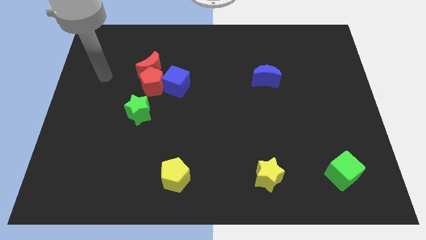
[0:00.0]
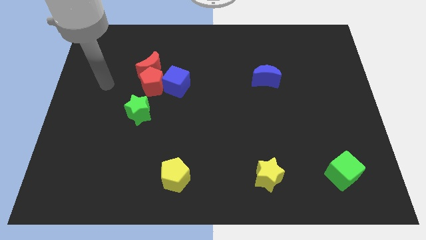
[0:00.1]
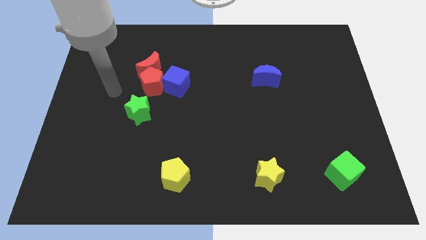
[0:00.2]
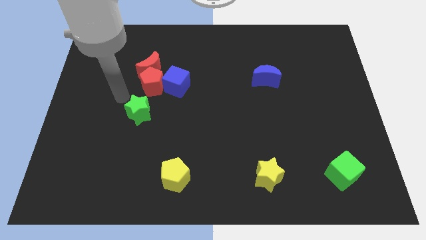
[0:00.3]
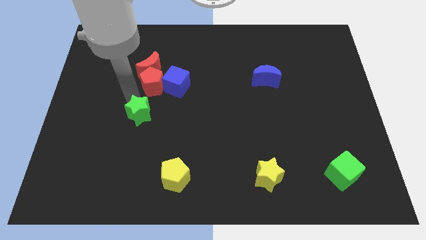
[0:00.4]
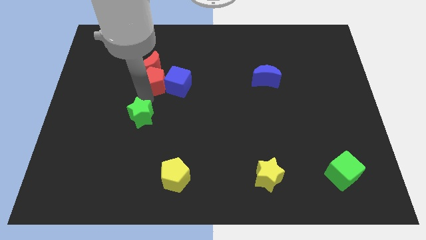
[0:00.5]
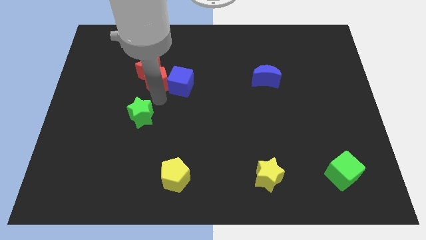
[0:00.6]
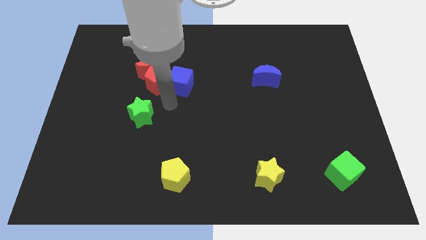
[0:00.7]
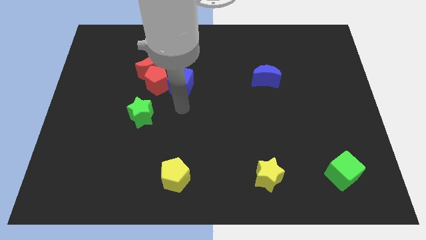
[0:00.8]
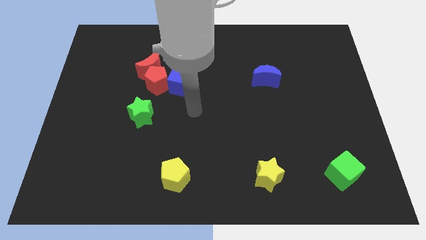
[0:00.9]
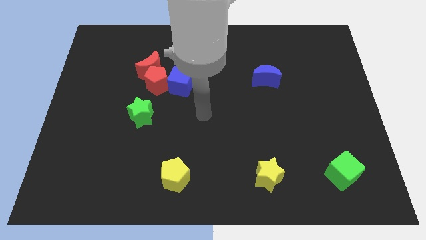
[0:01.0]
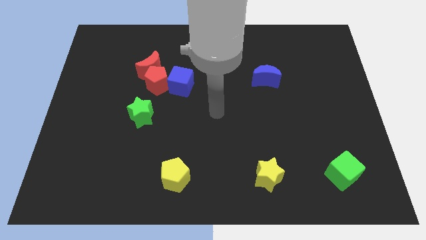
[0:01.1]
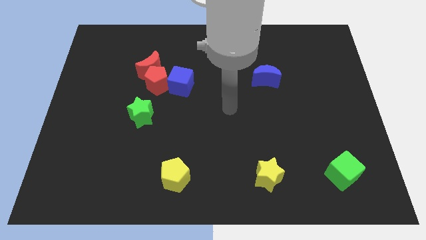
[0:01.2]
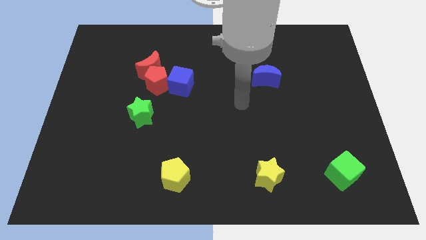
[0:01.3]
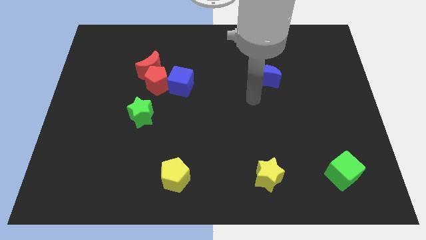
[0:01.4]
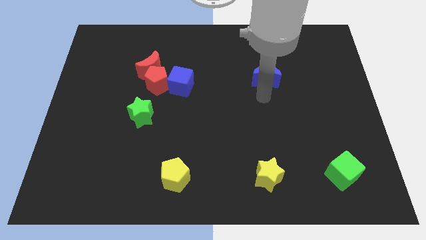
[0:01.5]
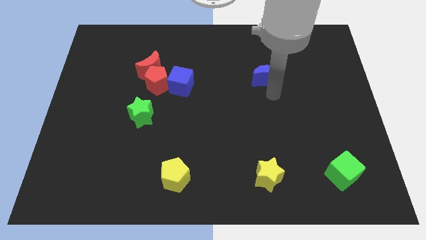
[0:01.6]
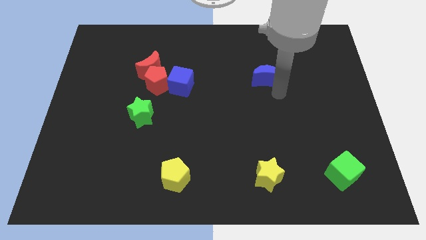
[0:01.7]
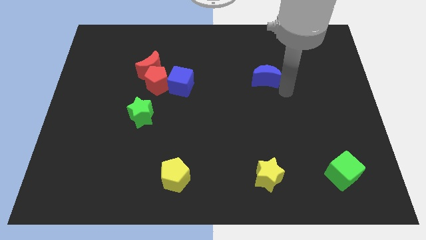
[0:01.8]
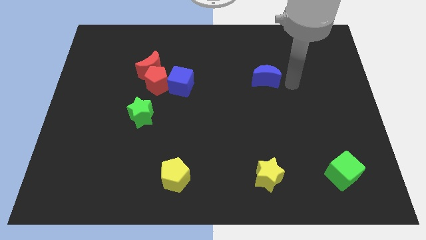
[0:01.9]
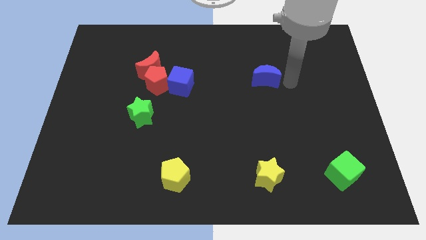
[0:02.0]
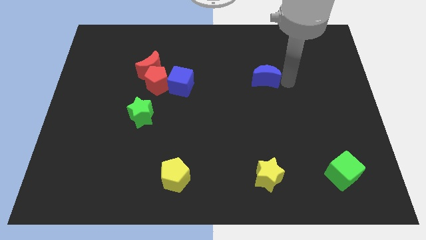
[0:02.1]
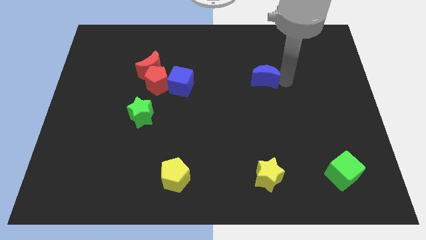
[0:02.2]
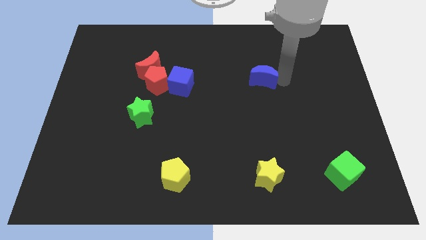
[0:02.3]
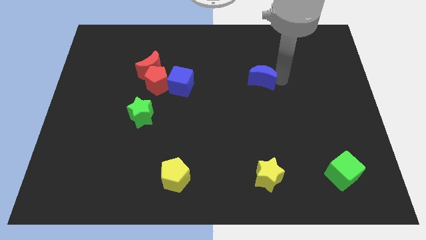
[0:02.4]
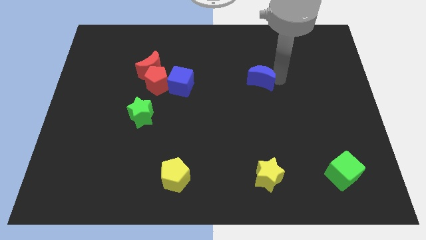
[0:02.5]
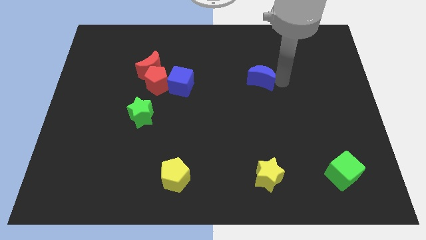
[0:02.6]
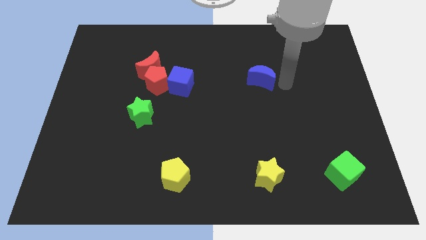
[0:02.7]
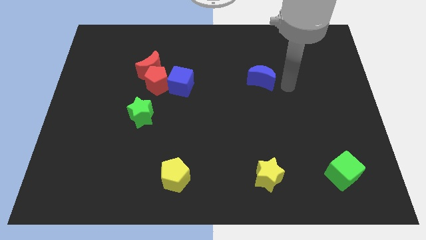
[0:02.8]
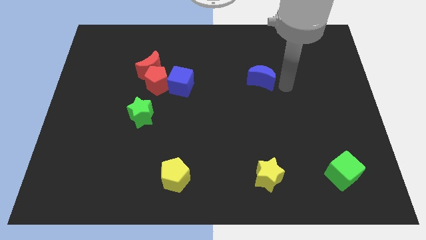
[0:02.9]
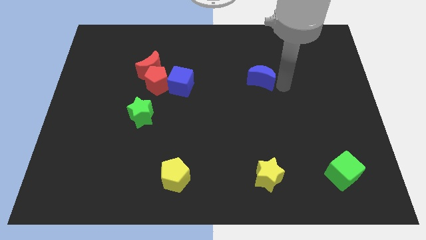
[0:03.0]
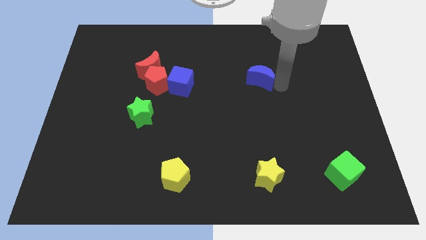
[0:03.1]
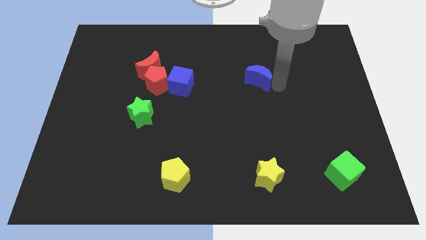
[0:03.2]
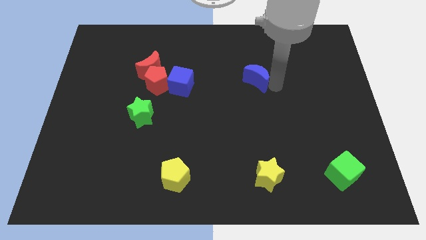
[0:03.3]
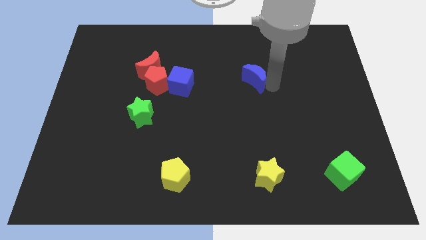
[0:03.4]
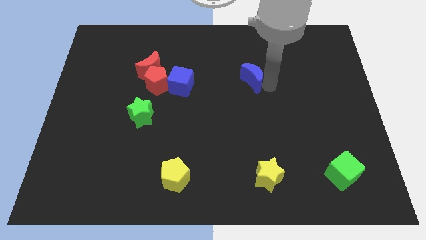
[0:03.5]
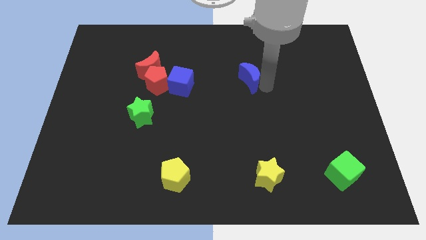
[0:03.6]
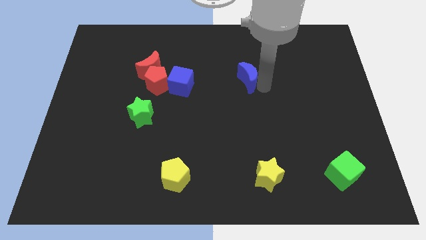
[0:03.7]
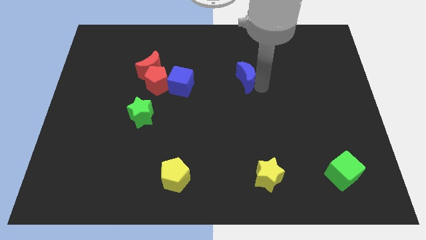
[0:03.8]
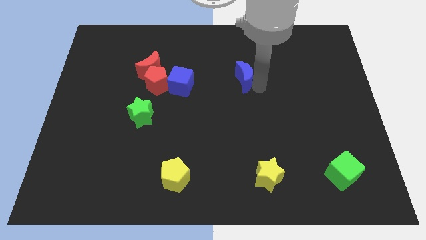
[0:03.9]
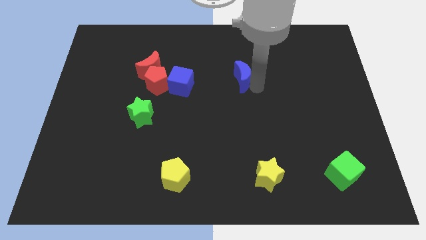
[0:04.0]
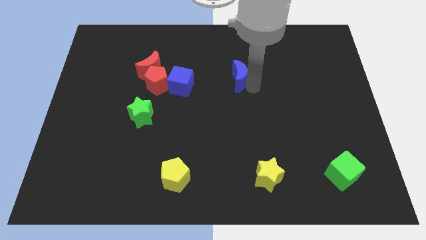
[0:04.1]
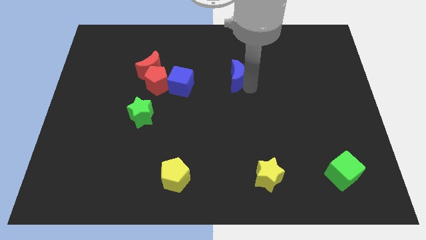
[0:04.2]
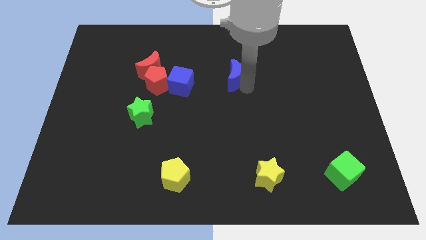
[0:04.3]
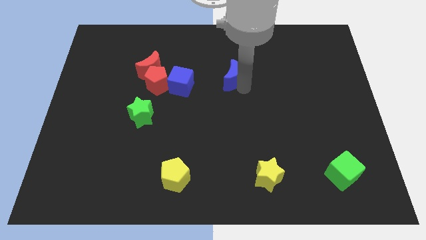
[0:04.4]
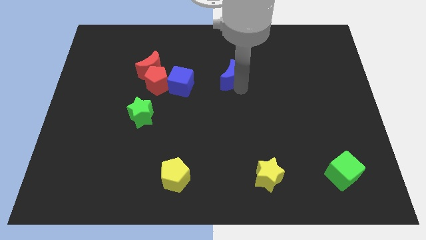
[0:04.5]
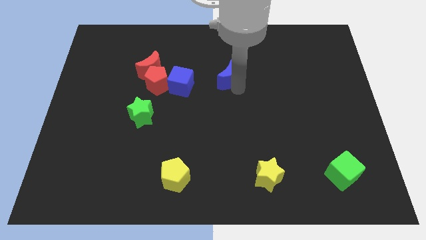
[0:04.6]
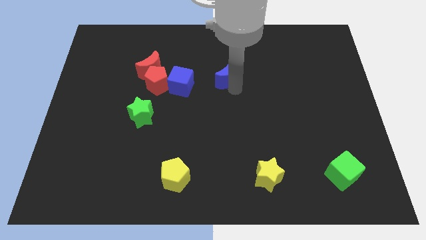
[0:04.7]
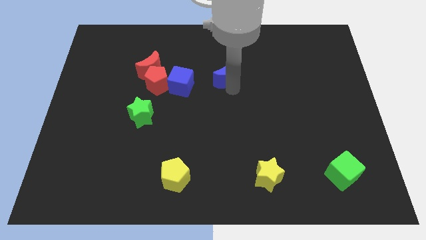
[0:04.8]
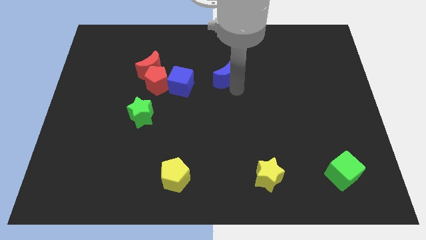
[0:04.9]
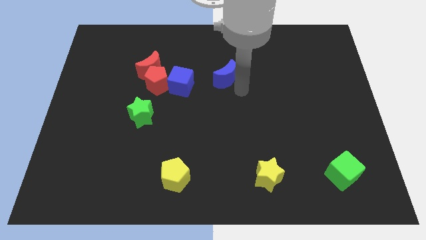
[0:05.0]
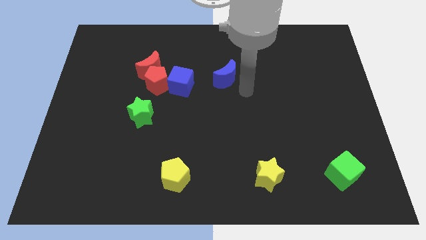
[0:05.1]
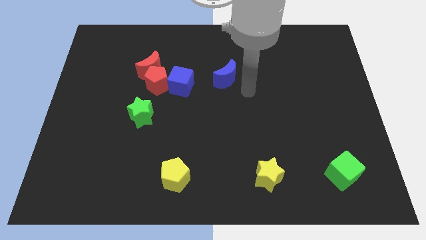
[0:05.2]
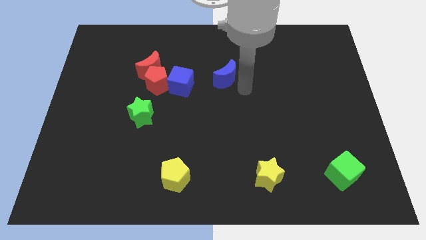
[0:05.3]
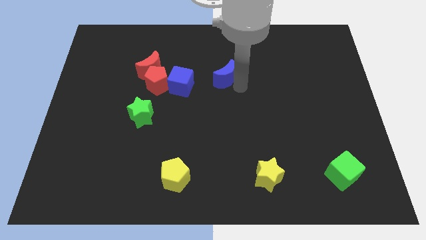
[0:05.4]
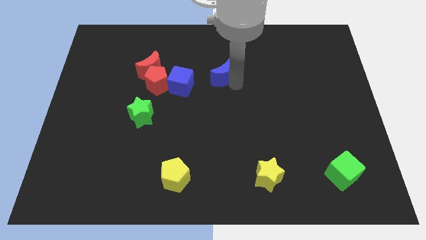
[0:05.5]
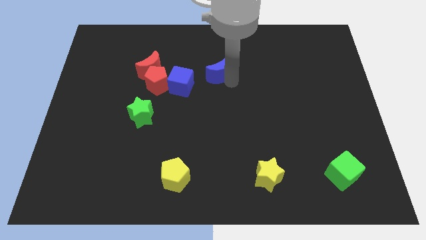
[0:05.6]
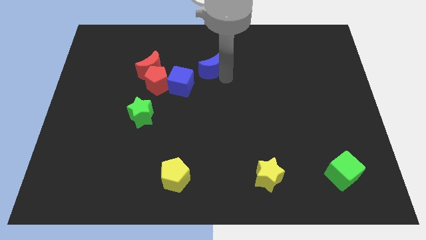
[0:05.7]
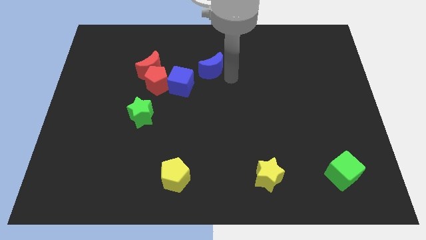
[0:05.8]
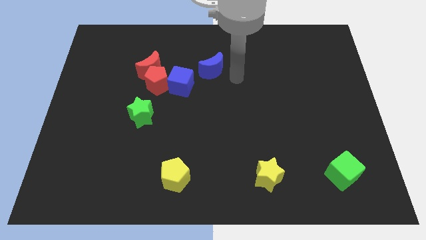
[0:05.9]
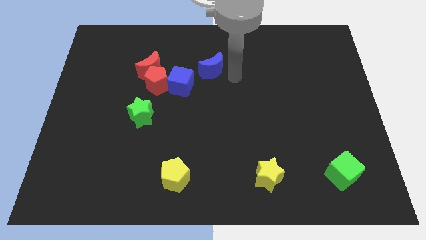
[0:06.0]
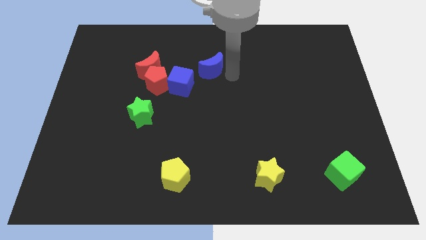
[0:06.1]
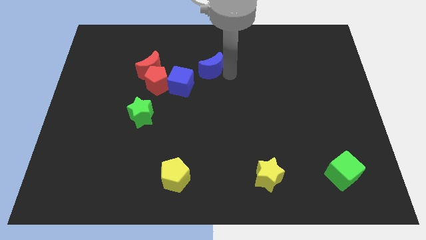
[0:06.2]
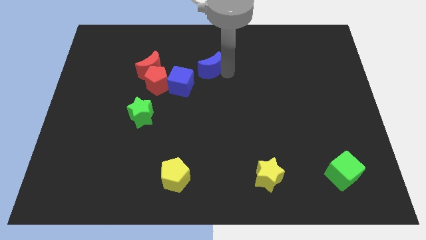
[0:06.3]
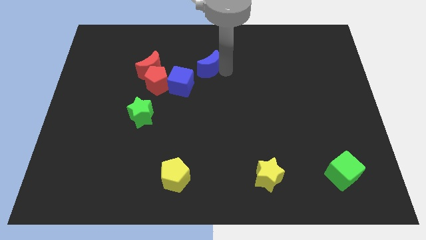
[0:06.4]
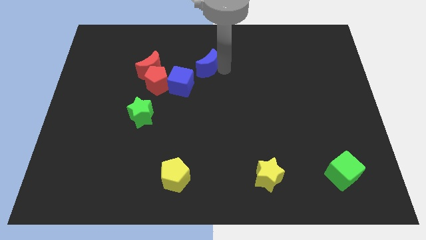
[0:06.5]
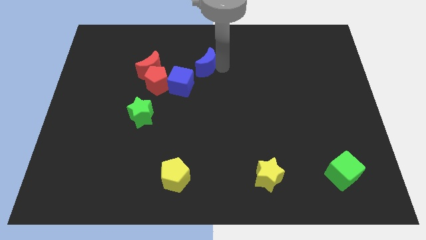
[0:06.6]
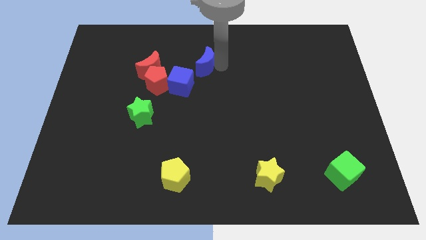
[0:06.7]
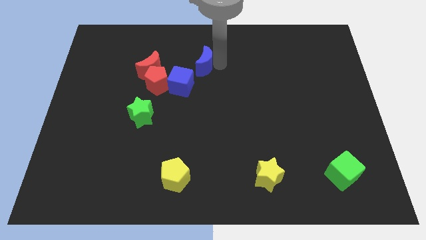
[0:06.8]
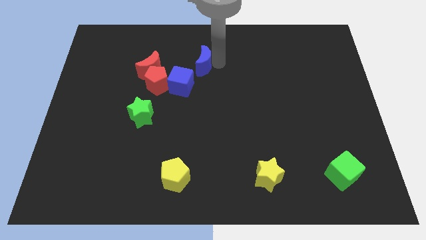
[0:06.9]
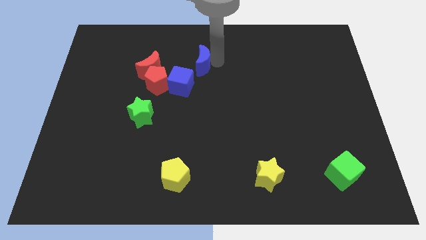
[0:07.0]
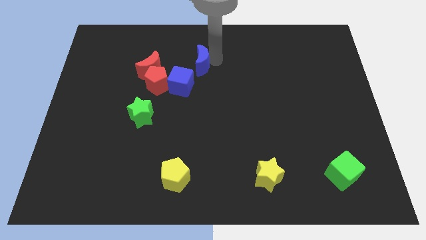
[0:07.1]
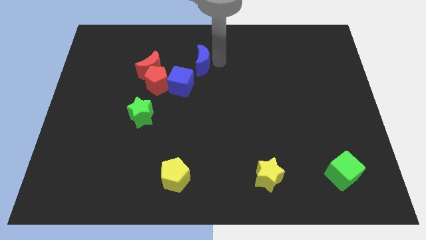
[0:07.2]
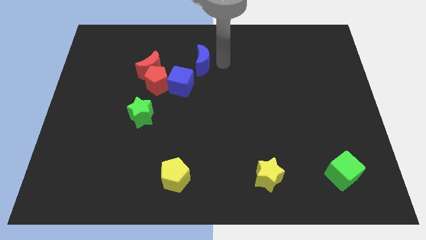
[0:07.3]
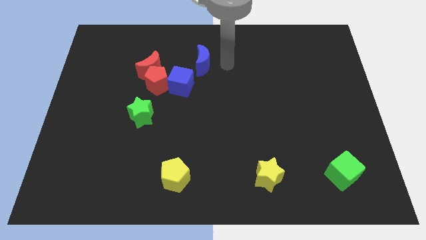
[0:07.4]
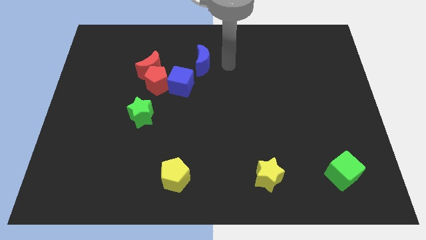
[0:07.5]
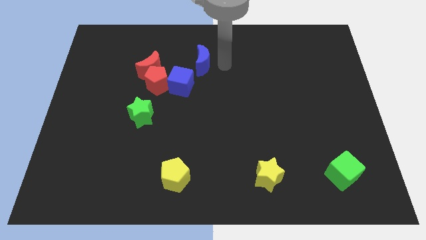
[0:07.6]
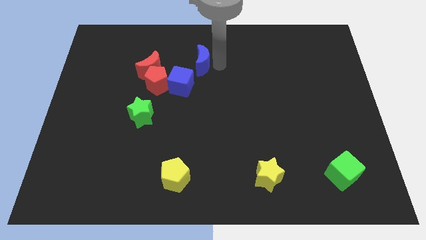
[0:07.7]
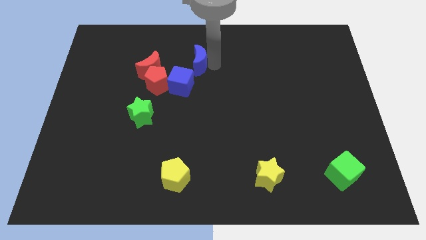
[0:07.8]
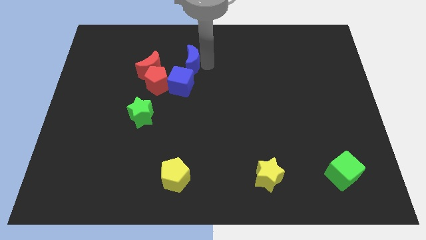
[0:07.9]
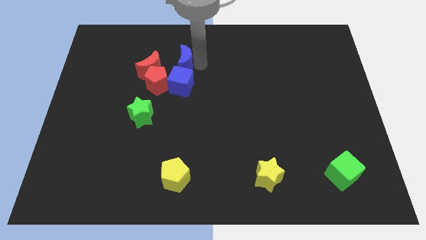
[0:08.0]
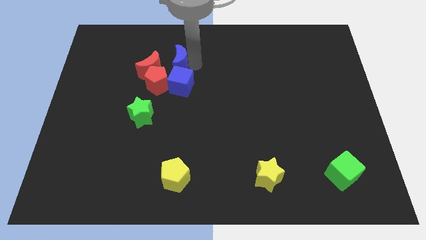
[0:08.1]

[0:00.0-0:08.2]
push the blue moon left
